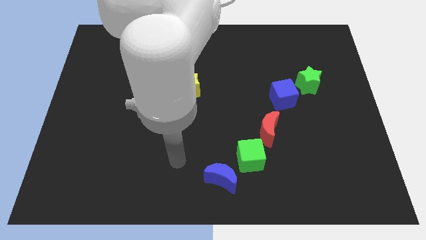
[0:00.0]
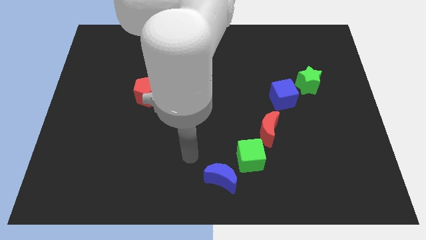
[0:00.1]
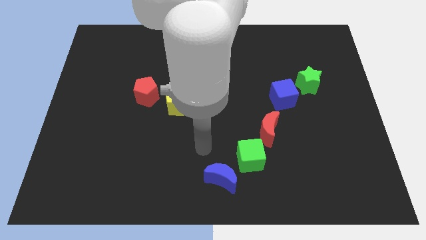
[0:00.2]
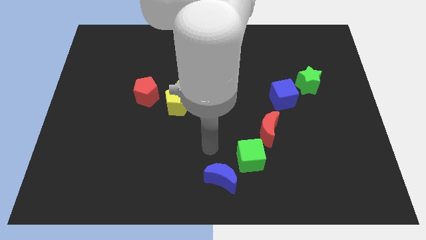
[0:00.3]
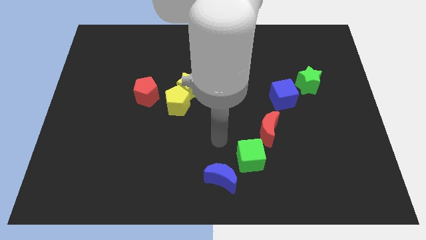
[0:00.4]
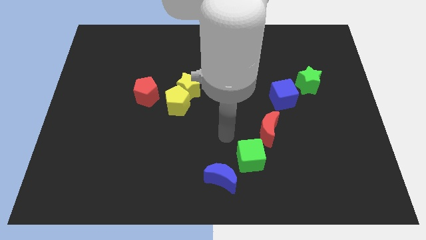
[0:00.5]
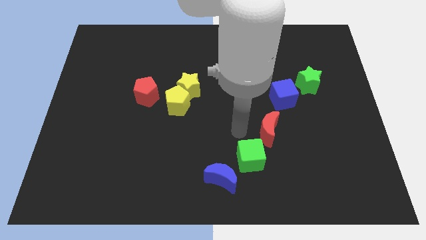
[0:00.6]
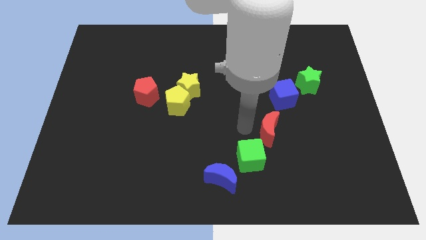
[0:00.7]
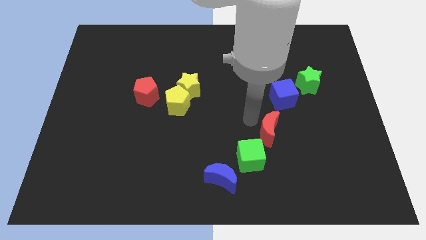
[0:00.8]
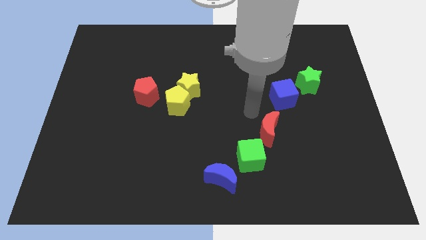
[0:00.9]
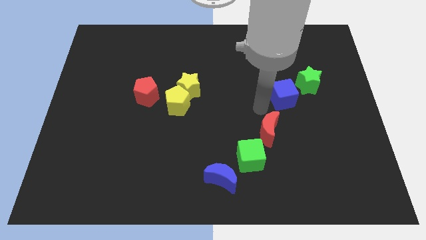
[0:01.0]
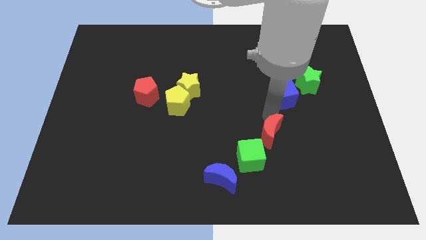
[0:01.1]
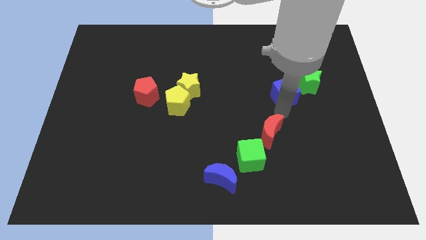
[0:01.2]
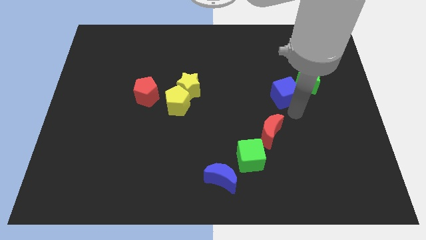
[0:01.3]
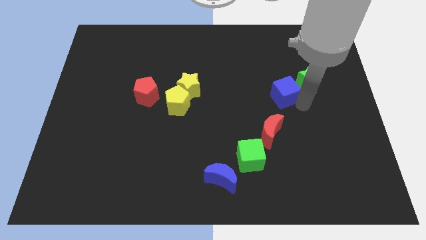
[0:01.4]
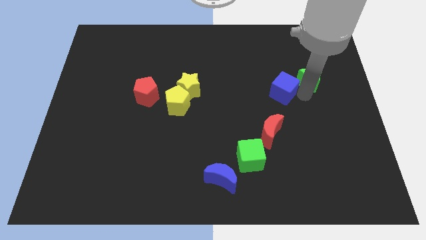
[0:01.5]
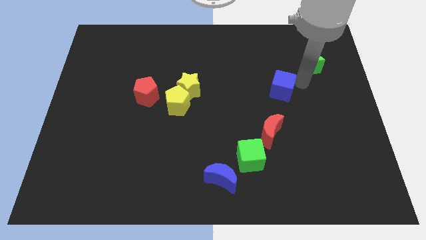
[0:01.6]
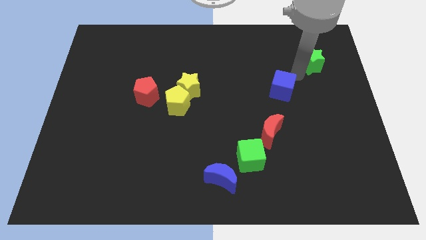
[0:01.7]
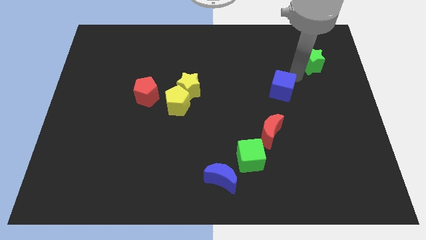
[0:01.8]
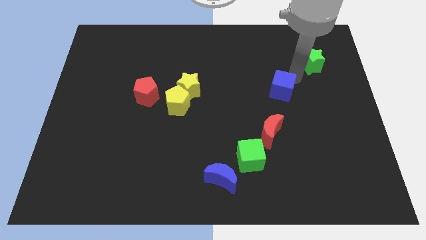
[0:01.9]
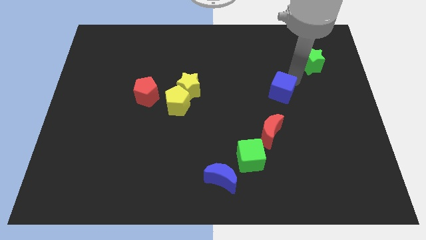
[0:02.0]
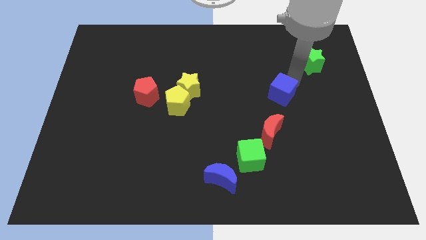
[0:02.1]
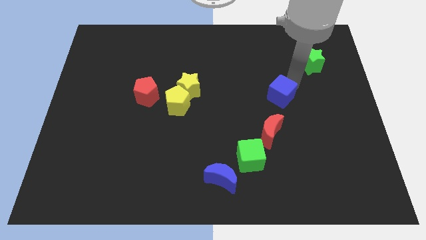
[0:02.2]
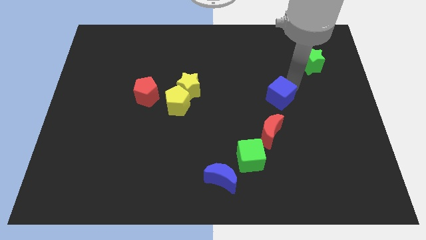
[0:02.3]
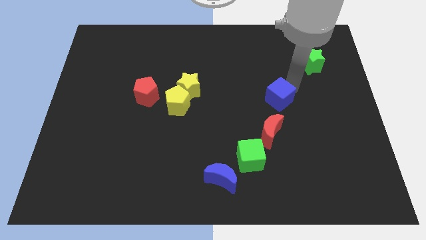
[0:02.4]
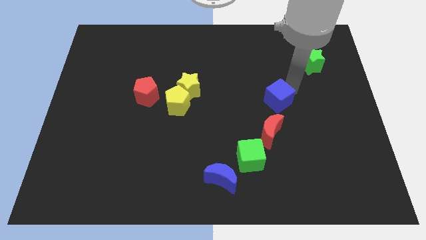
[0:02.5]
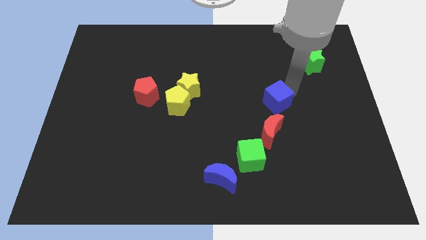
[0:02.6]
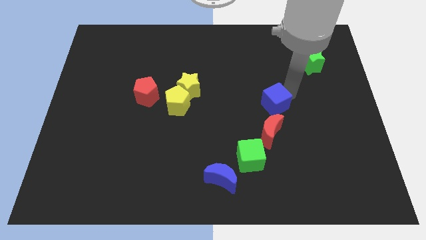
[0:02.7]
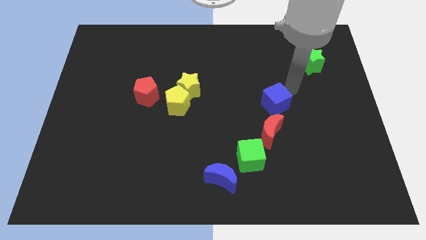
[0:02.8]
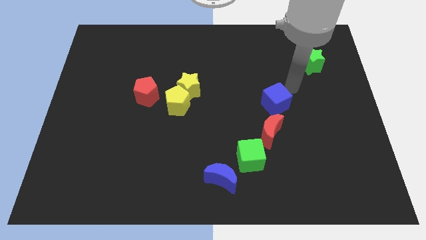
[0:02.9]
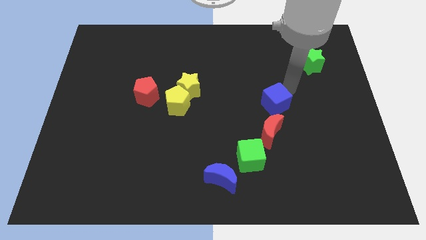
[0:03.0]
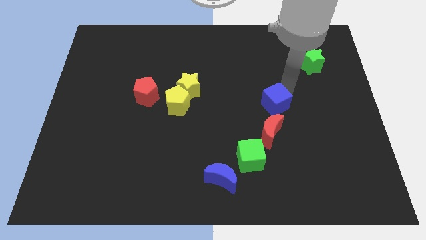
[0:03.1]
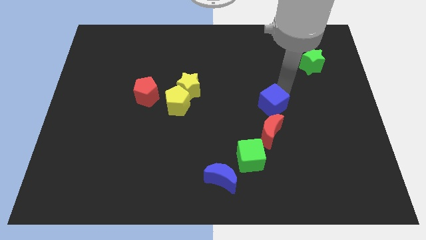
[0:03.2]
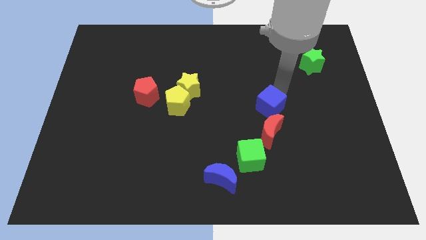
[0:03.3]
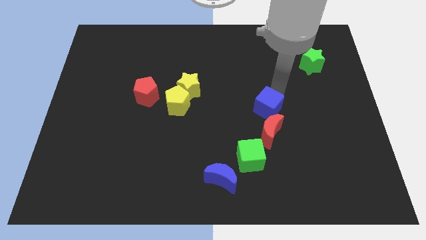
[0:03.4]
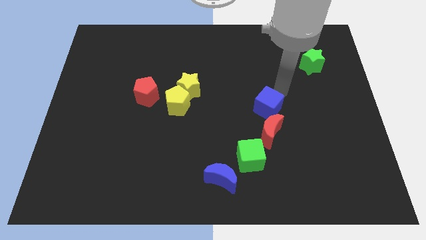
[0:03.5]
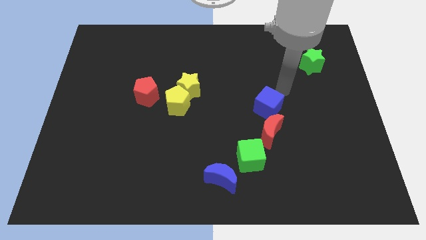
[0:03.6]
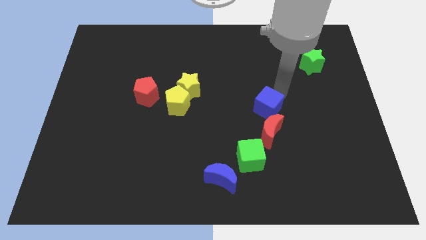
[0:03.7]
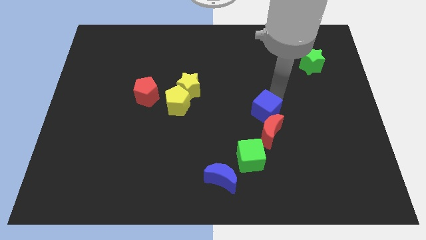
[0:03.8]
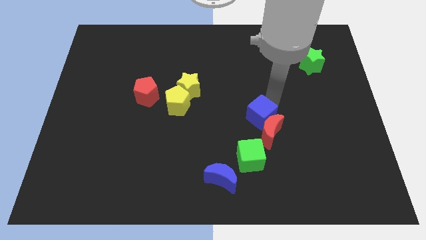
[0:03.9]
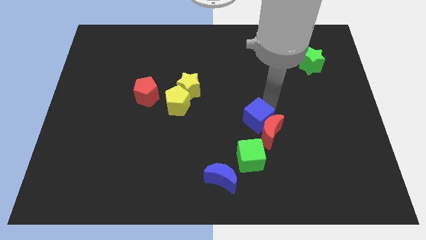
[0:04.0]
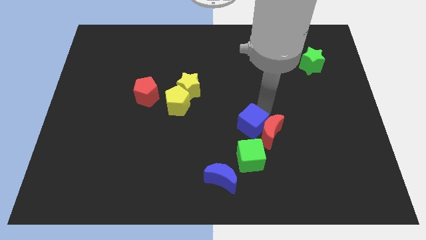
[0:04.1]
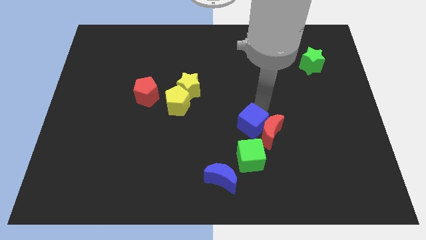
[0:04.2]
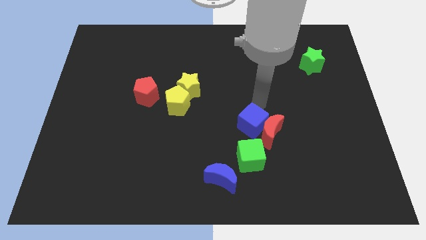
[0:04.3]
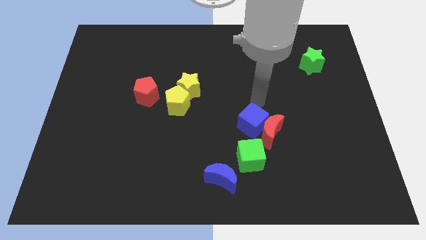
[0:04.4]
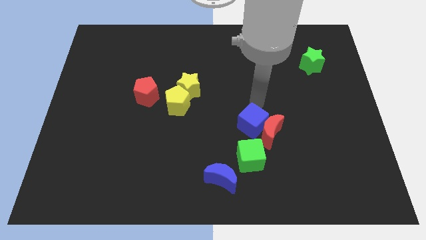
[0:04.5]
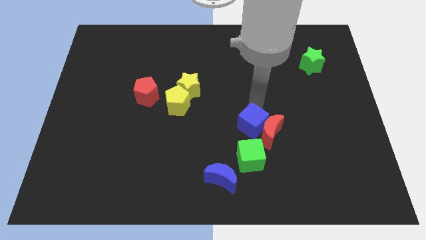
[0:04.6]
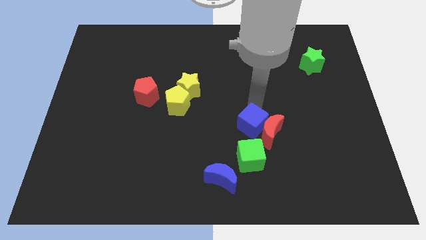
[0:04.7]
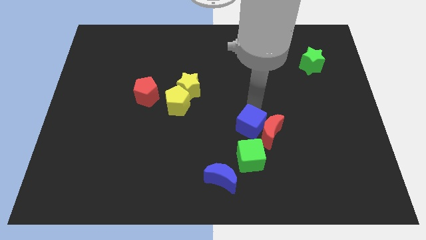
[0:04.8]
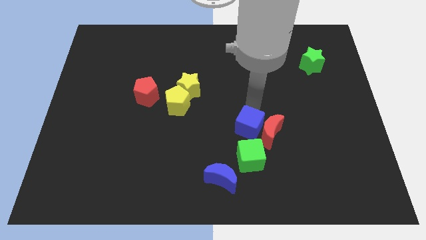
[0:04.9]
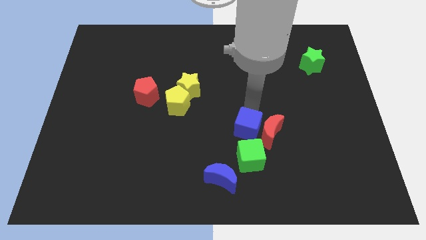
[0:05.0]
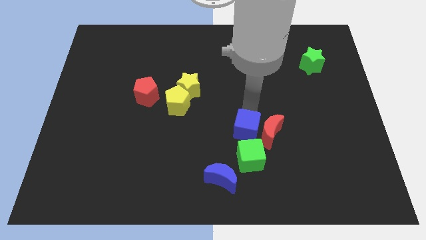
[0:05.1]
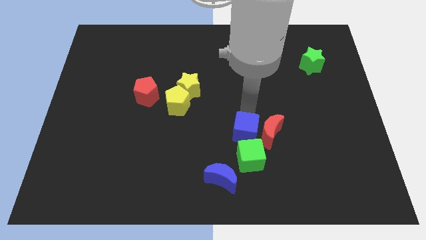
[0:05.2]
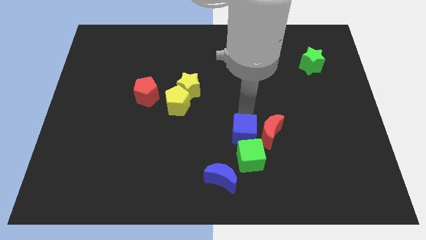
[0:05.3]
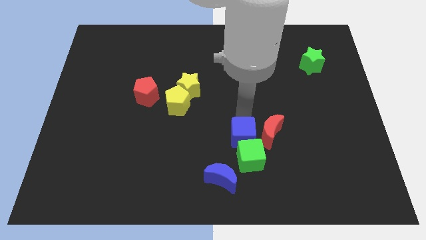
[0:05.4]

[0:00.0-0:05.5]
put the blue cube next to the green cube

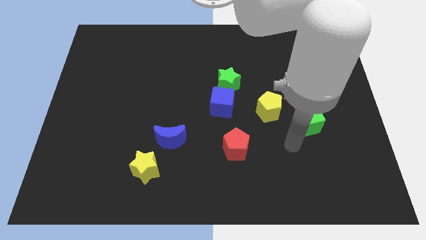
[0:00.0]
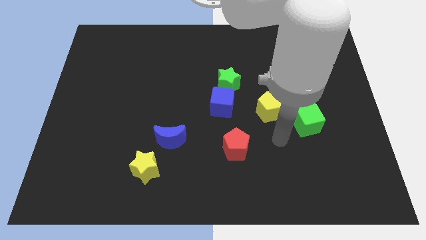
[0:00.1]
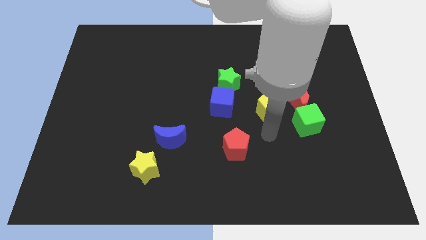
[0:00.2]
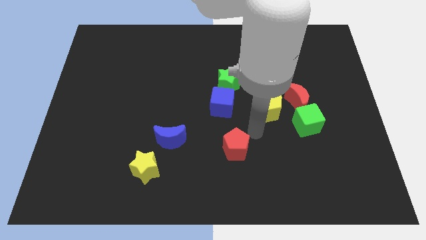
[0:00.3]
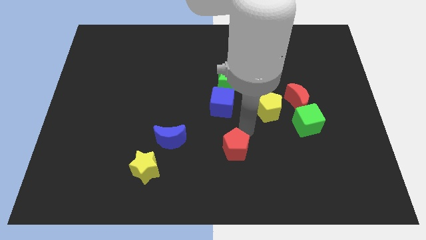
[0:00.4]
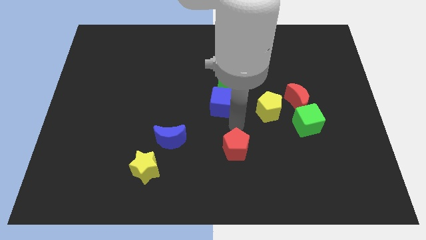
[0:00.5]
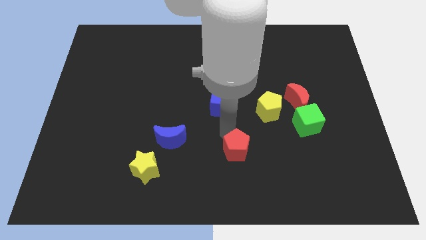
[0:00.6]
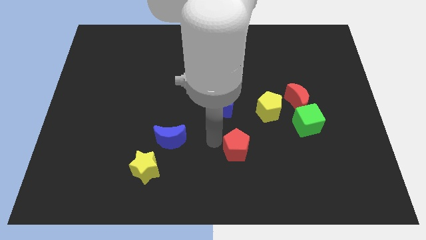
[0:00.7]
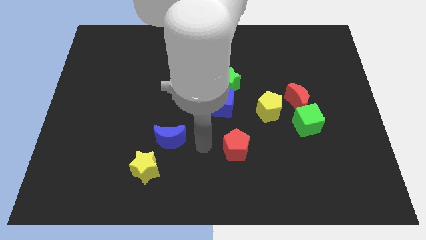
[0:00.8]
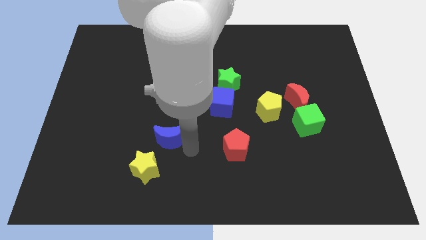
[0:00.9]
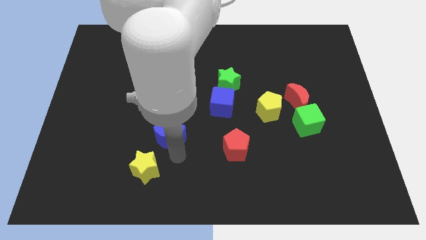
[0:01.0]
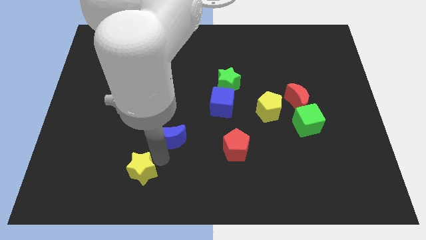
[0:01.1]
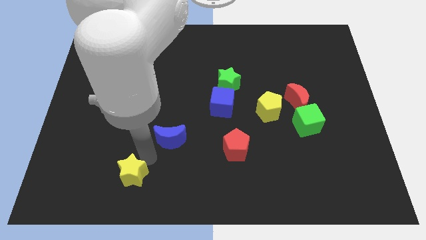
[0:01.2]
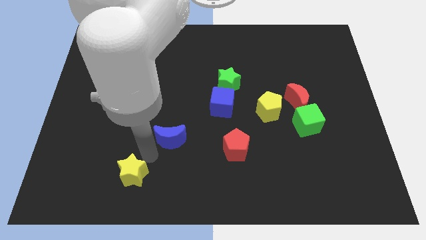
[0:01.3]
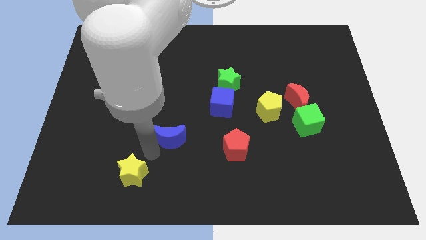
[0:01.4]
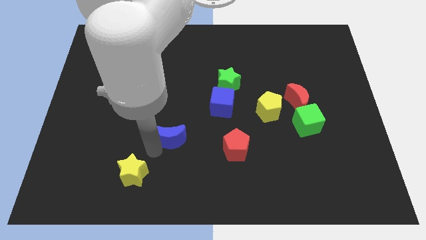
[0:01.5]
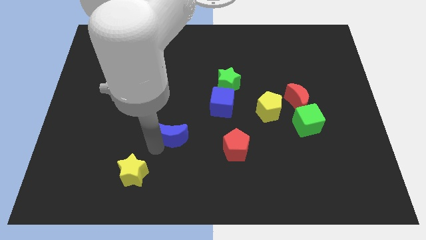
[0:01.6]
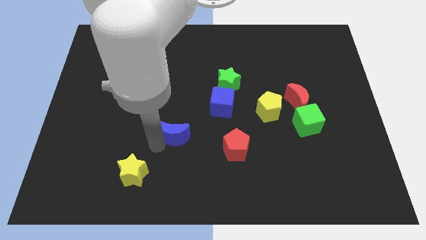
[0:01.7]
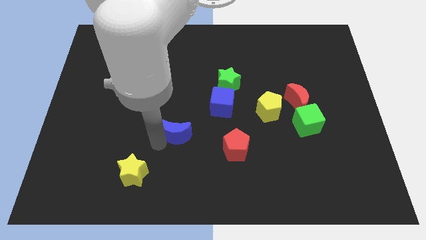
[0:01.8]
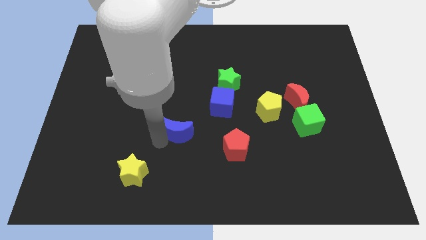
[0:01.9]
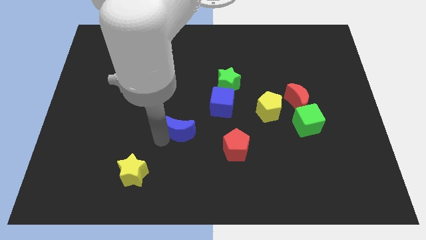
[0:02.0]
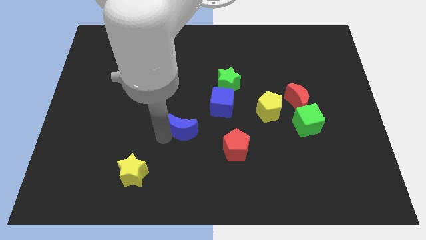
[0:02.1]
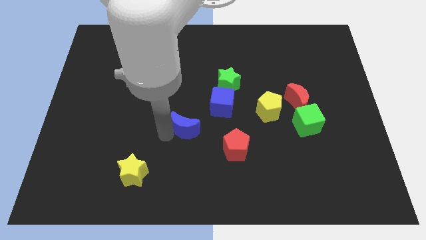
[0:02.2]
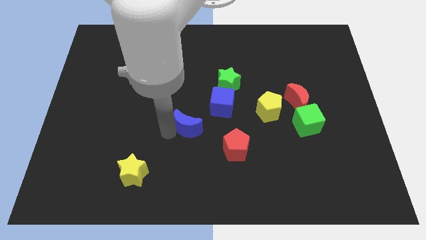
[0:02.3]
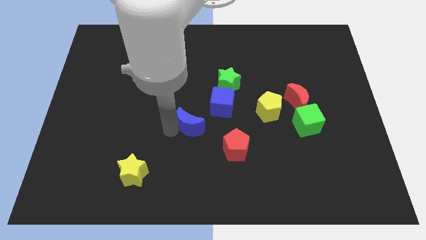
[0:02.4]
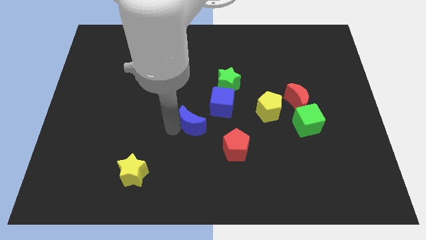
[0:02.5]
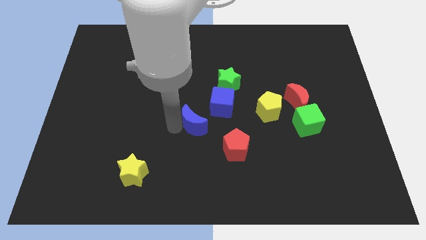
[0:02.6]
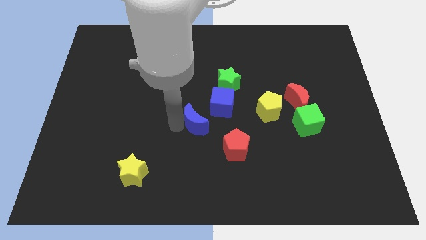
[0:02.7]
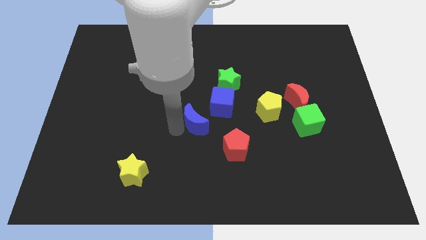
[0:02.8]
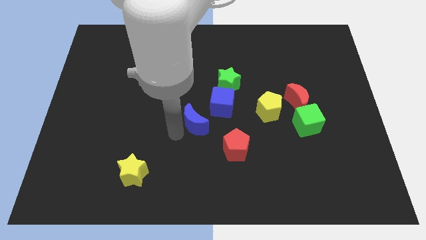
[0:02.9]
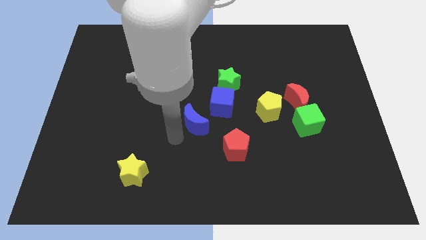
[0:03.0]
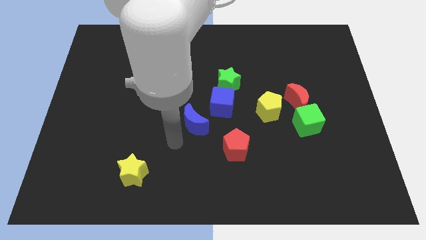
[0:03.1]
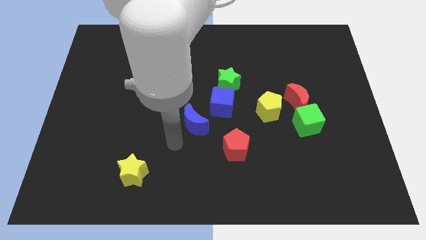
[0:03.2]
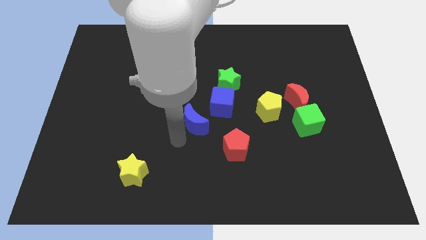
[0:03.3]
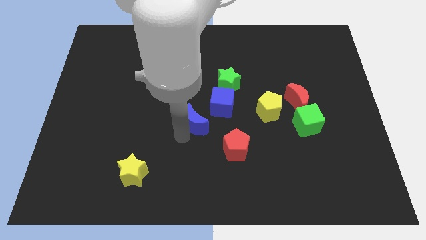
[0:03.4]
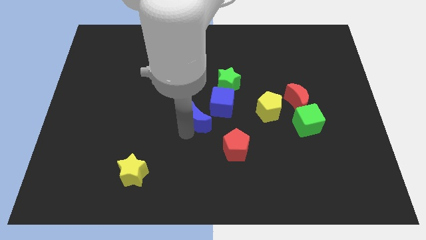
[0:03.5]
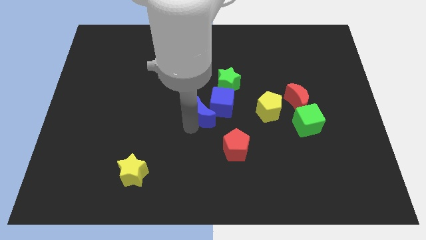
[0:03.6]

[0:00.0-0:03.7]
push the blue moon to the blue cube
